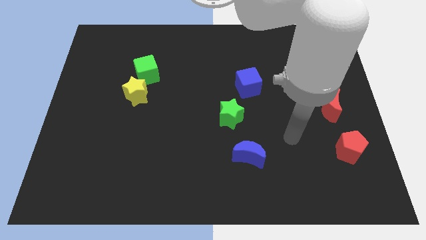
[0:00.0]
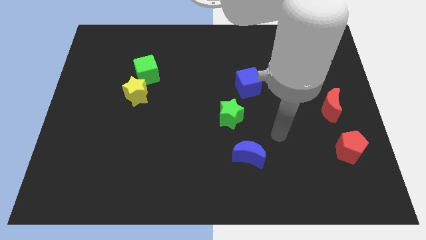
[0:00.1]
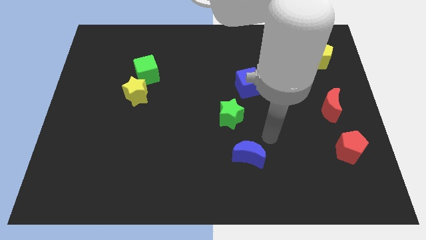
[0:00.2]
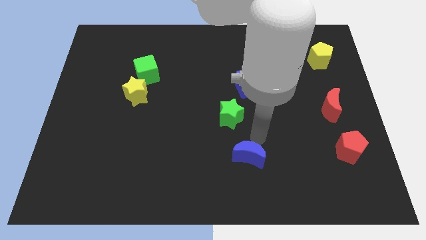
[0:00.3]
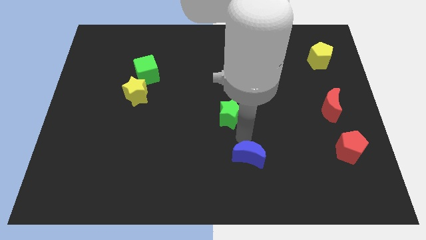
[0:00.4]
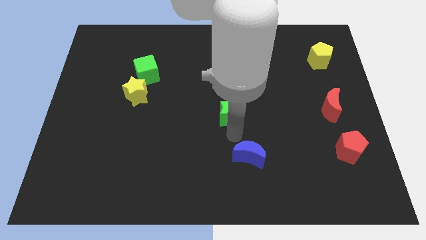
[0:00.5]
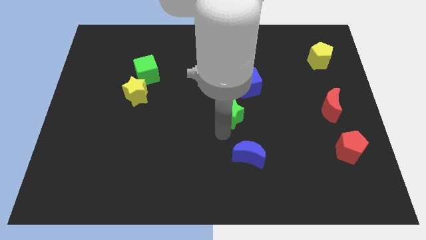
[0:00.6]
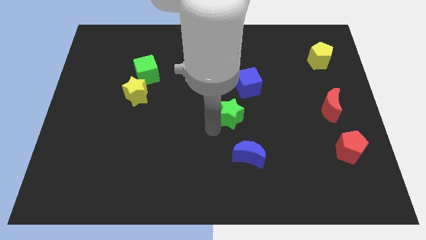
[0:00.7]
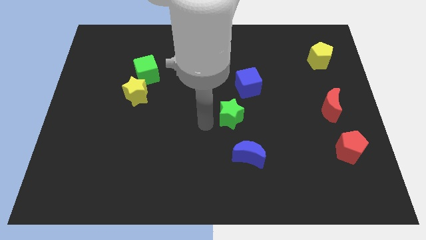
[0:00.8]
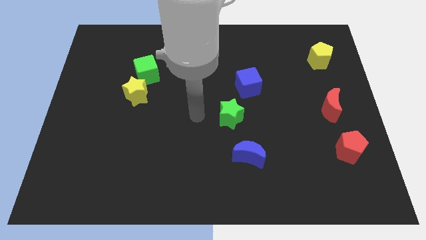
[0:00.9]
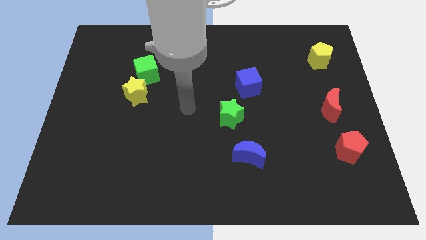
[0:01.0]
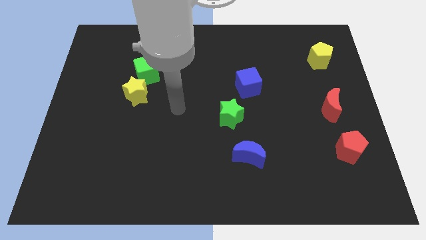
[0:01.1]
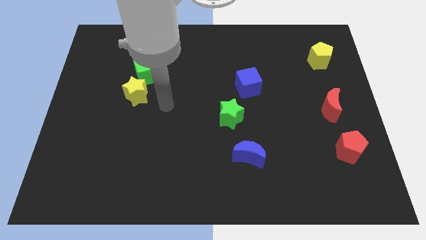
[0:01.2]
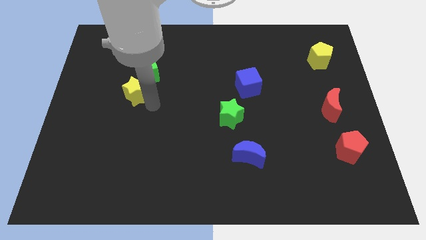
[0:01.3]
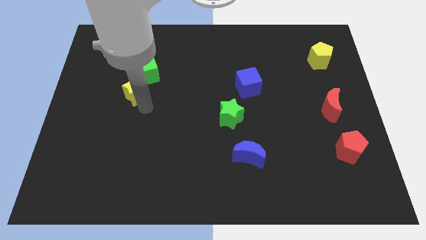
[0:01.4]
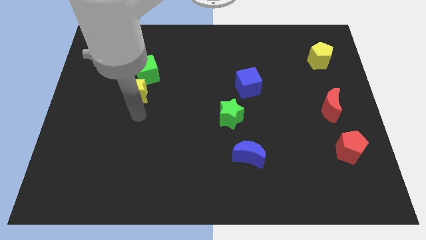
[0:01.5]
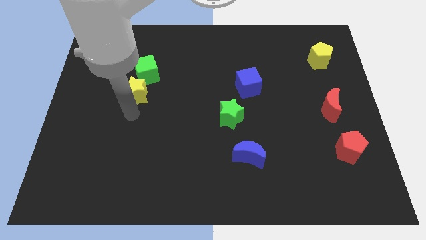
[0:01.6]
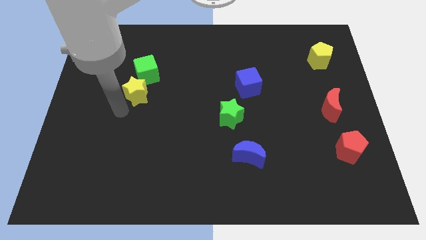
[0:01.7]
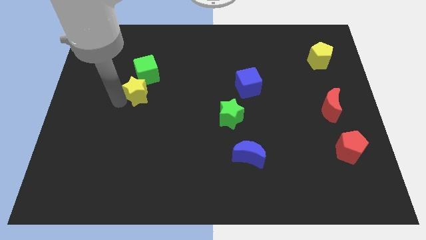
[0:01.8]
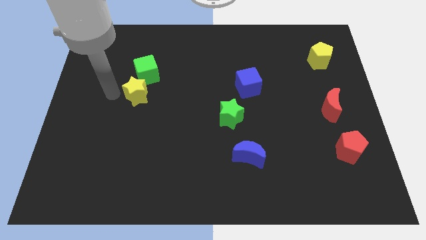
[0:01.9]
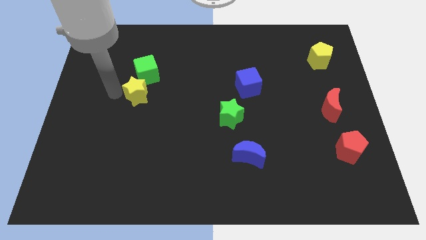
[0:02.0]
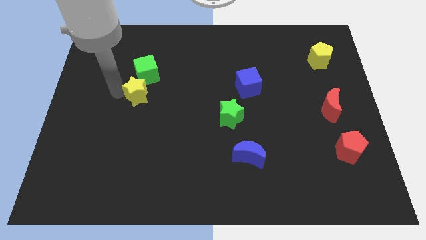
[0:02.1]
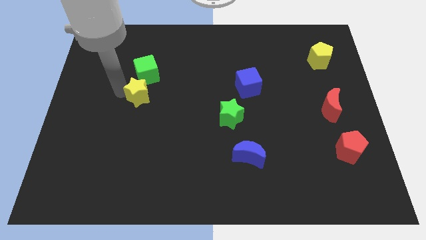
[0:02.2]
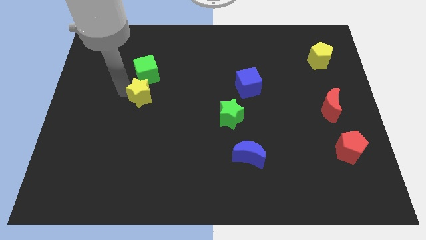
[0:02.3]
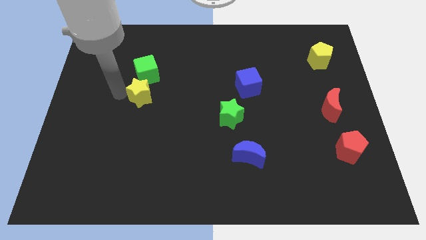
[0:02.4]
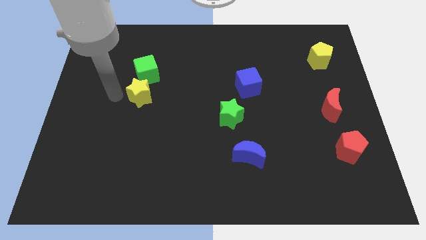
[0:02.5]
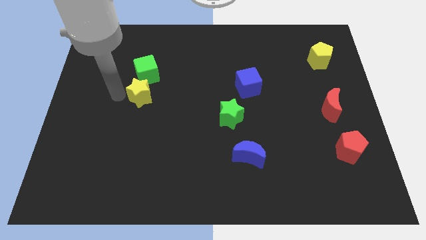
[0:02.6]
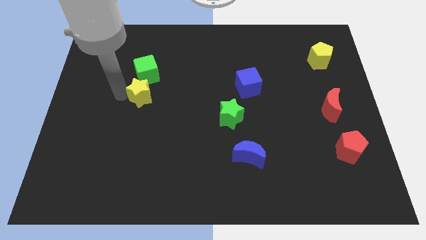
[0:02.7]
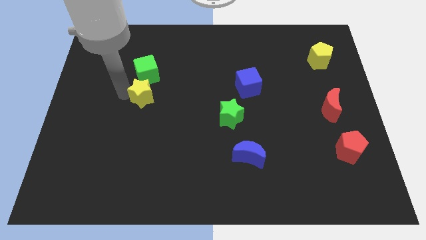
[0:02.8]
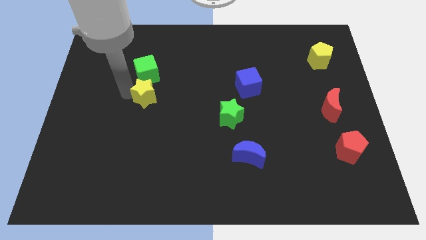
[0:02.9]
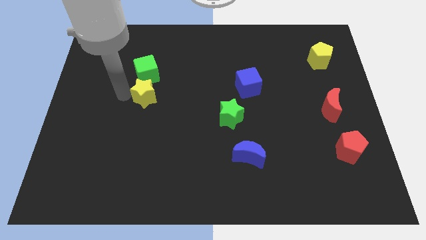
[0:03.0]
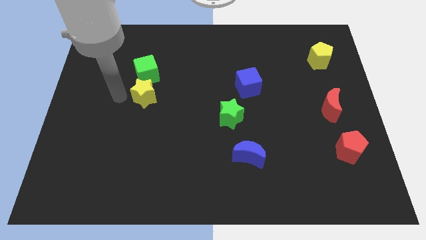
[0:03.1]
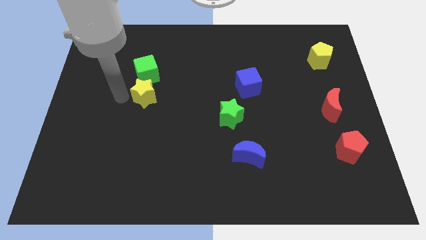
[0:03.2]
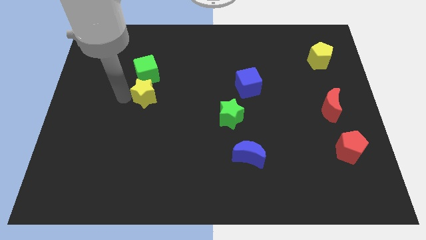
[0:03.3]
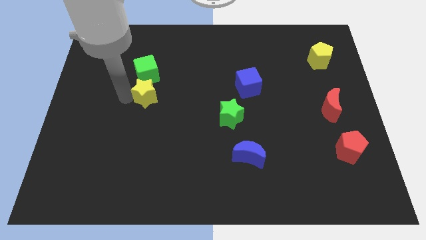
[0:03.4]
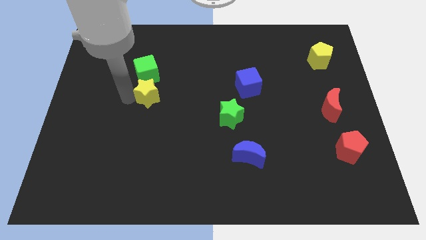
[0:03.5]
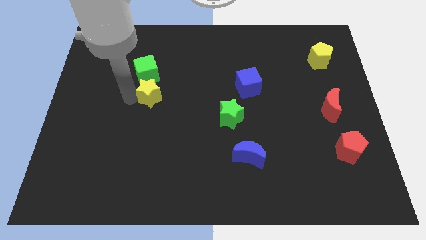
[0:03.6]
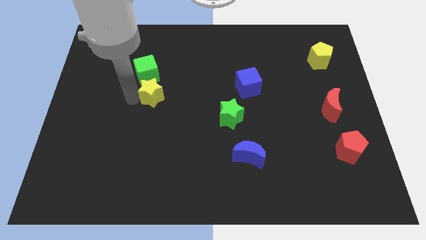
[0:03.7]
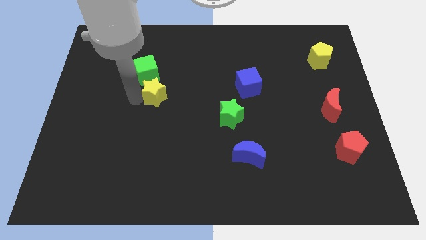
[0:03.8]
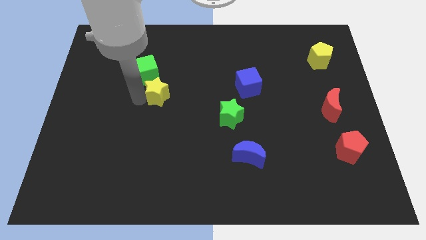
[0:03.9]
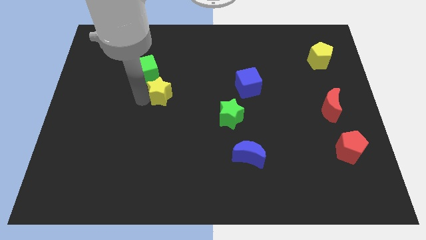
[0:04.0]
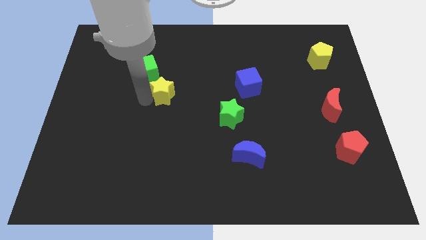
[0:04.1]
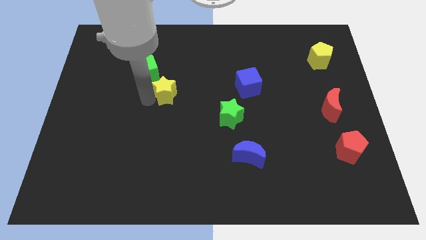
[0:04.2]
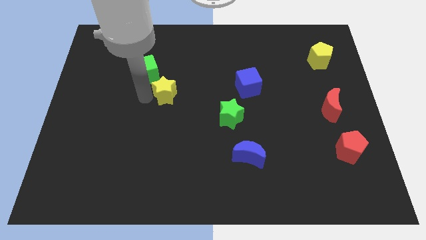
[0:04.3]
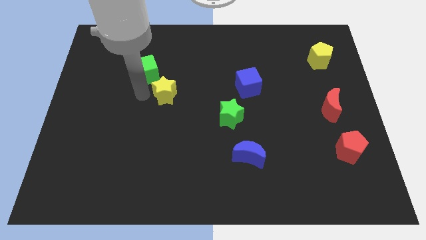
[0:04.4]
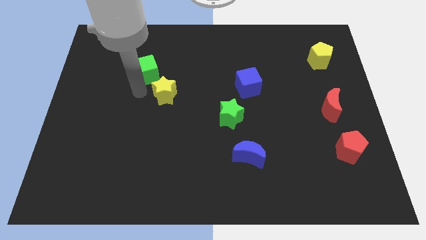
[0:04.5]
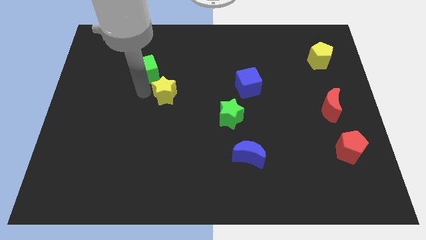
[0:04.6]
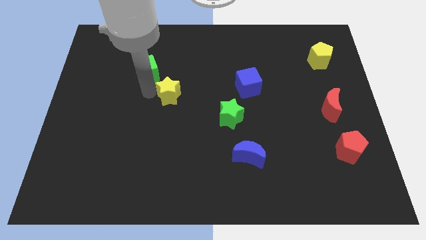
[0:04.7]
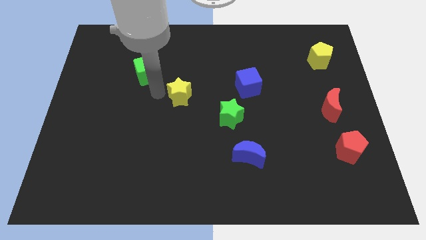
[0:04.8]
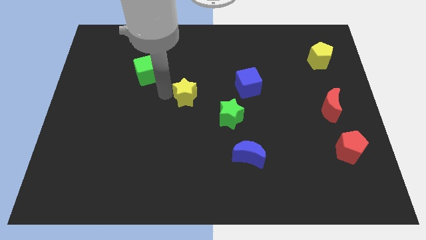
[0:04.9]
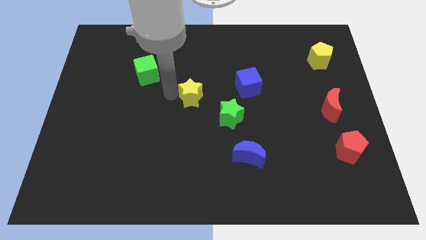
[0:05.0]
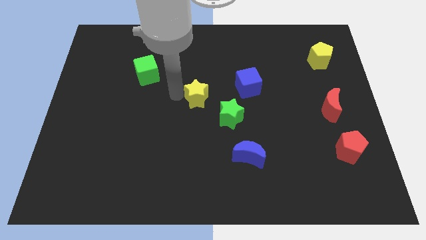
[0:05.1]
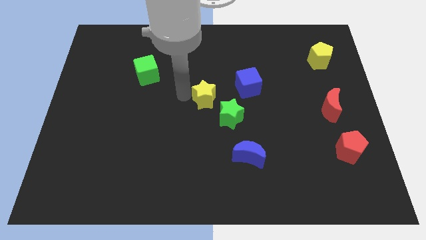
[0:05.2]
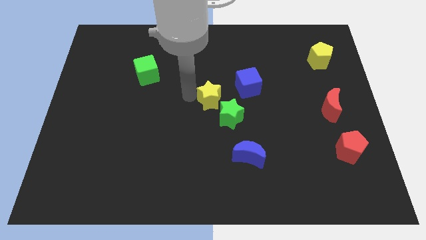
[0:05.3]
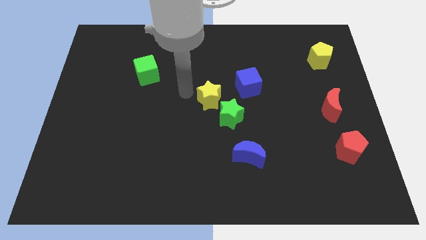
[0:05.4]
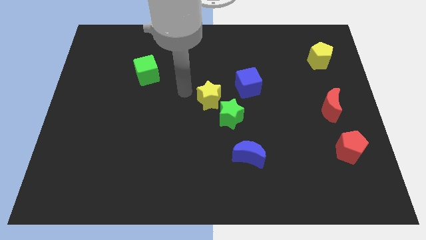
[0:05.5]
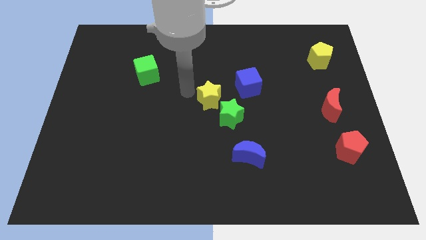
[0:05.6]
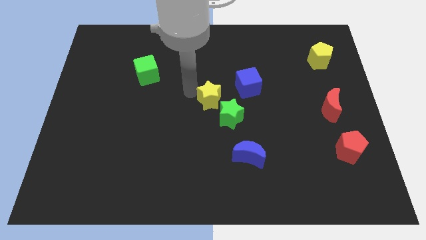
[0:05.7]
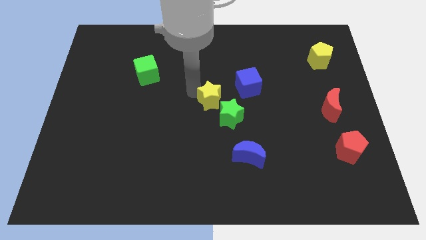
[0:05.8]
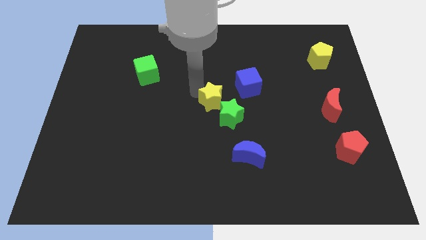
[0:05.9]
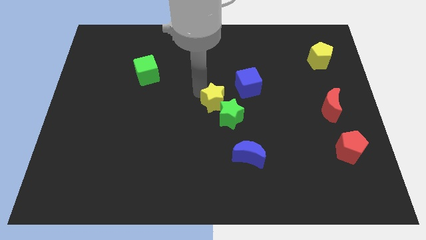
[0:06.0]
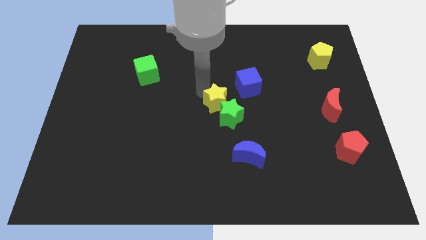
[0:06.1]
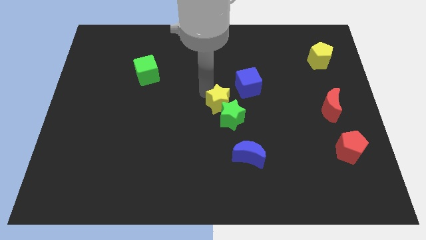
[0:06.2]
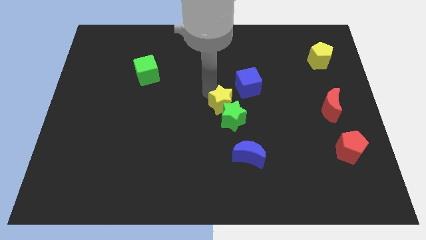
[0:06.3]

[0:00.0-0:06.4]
move the yellow star to the right

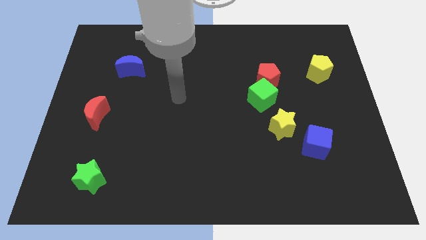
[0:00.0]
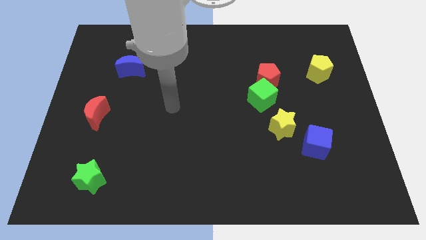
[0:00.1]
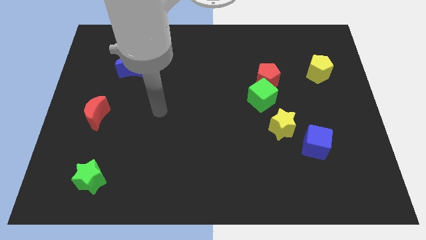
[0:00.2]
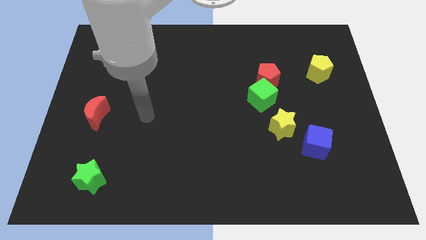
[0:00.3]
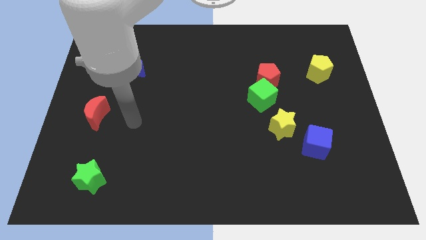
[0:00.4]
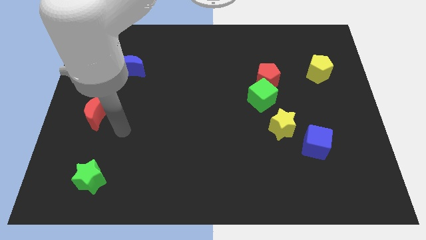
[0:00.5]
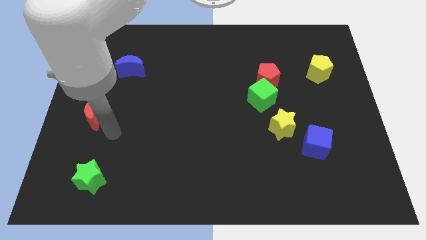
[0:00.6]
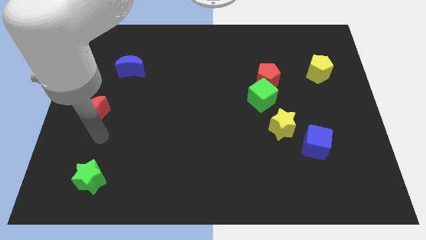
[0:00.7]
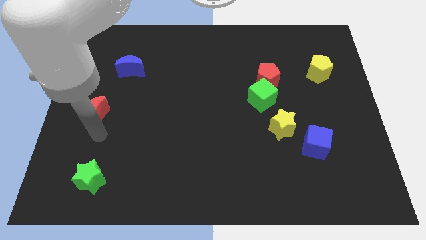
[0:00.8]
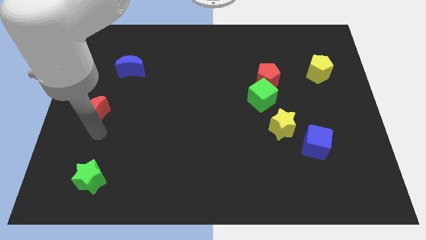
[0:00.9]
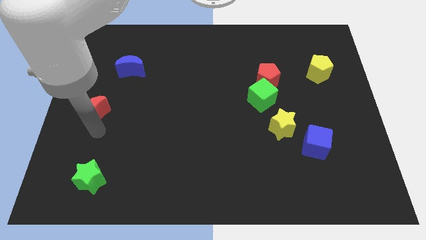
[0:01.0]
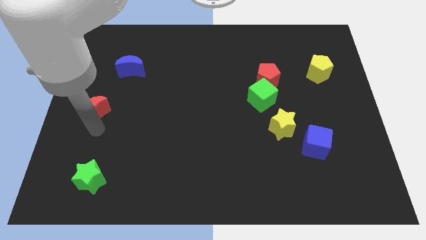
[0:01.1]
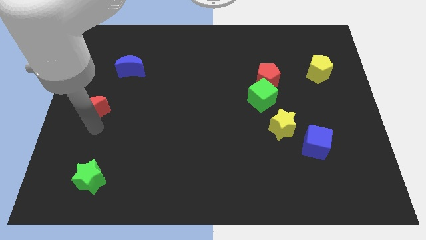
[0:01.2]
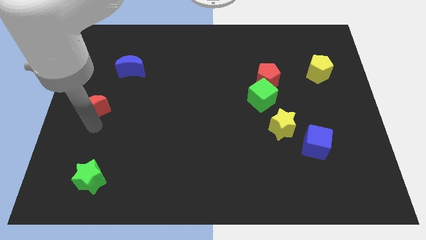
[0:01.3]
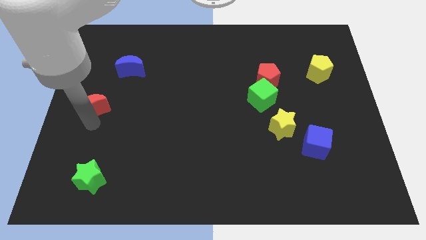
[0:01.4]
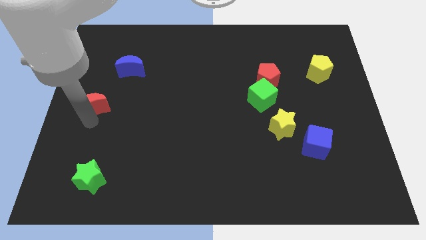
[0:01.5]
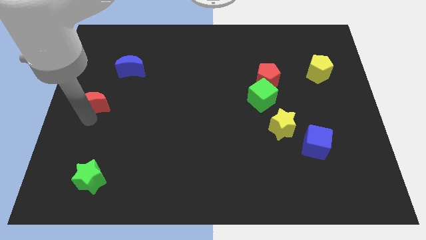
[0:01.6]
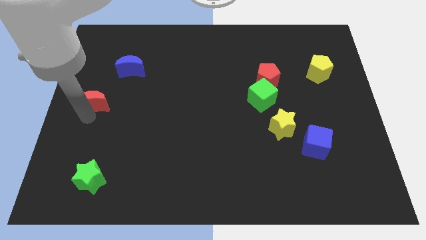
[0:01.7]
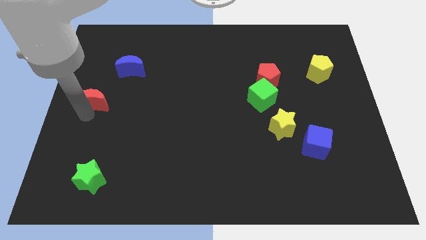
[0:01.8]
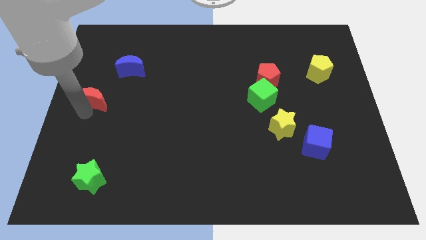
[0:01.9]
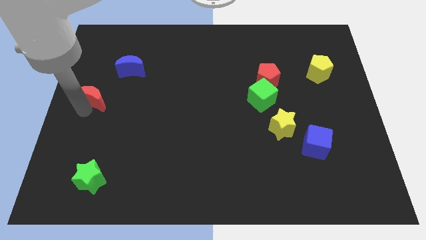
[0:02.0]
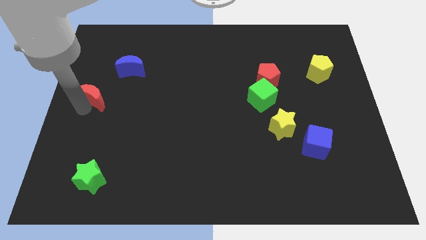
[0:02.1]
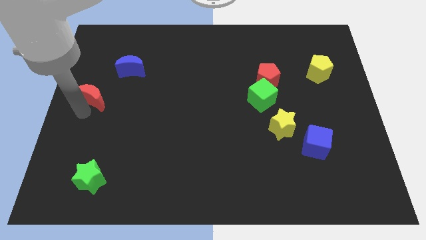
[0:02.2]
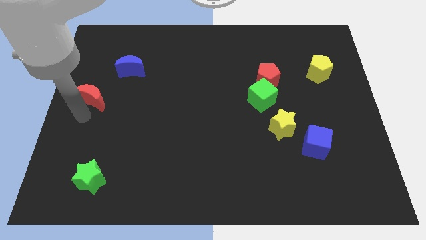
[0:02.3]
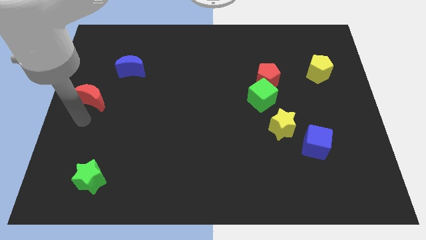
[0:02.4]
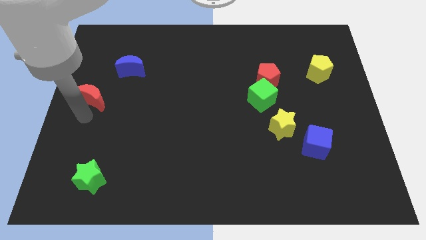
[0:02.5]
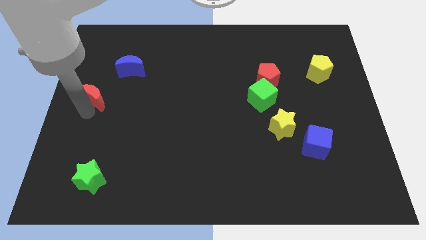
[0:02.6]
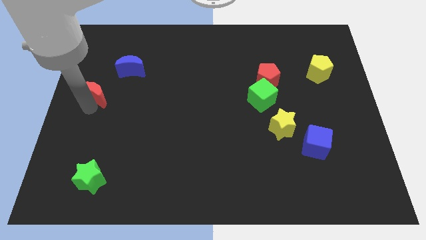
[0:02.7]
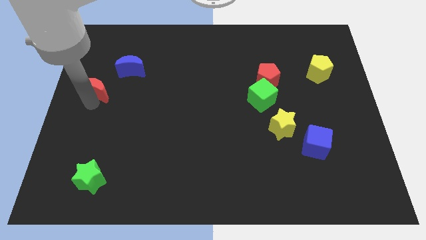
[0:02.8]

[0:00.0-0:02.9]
slightly push the red moon up
